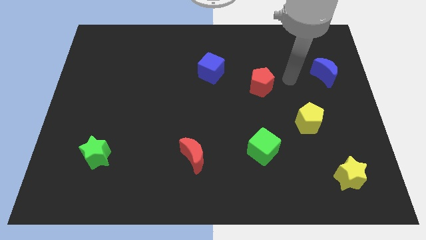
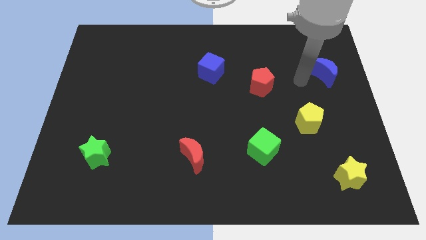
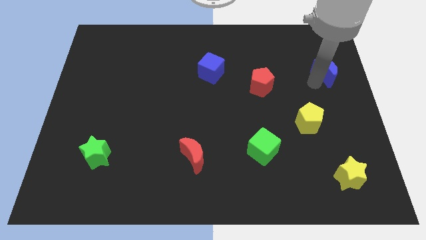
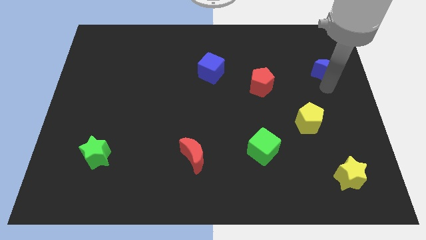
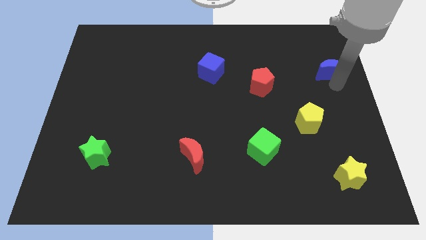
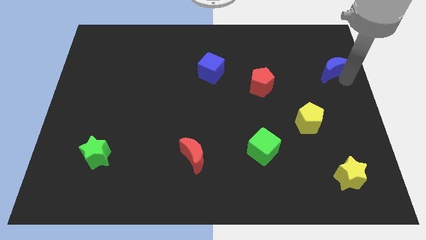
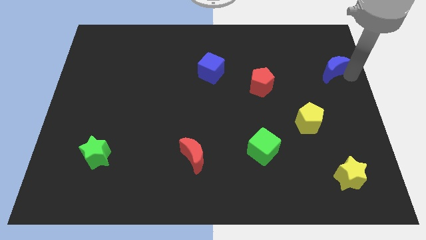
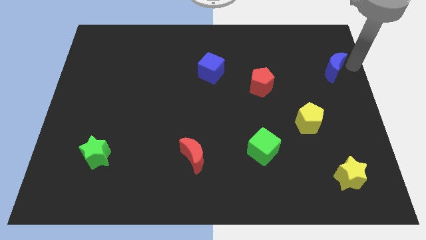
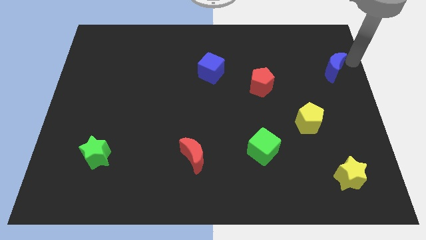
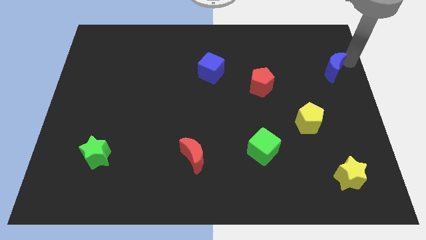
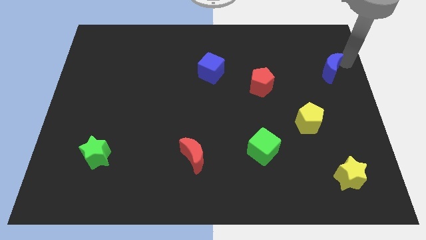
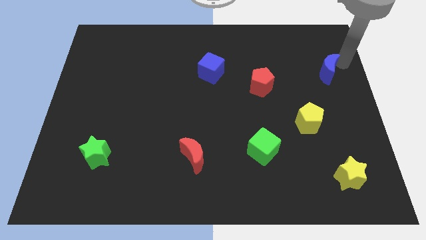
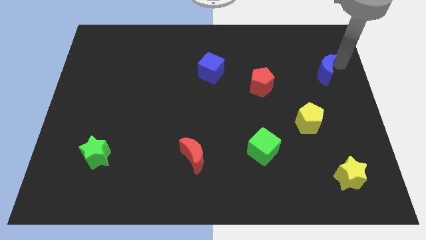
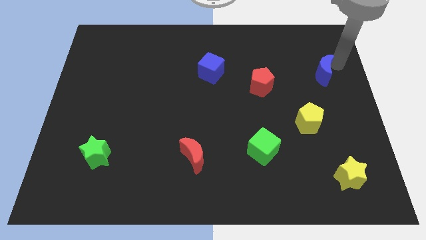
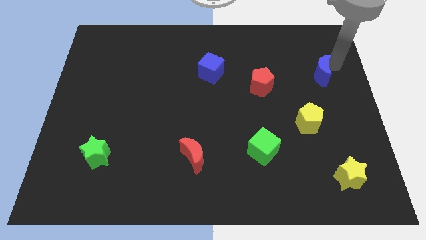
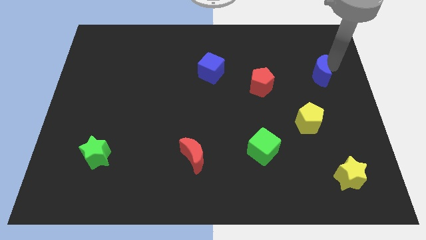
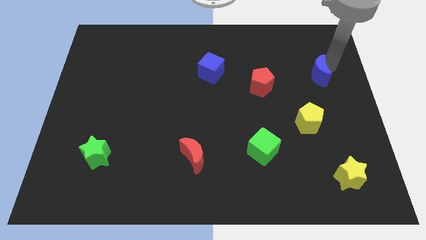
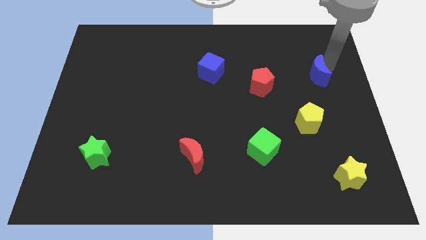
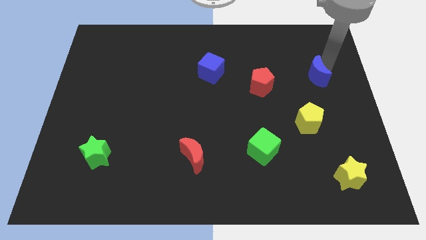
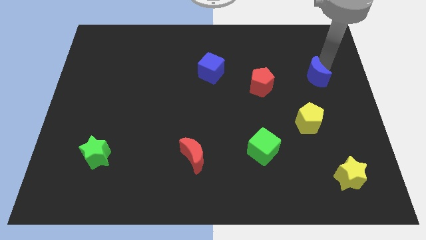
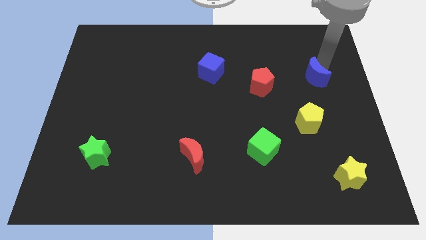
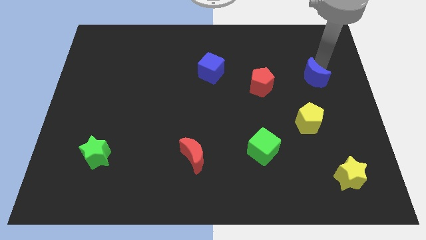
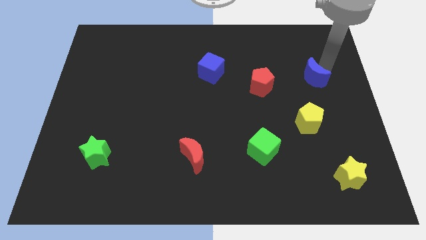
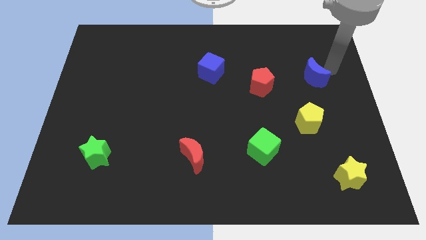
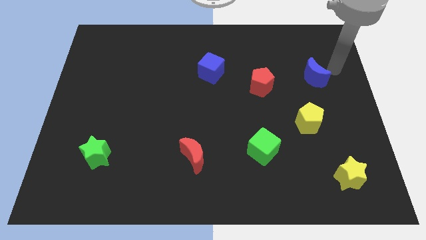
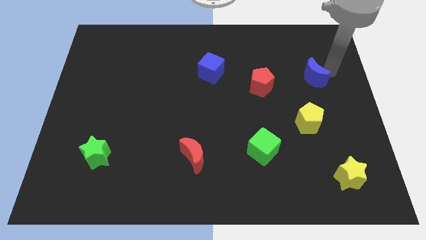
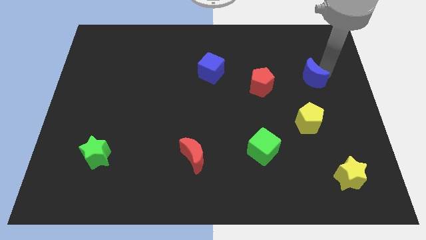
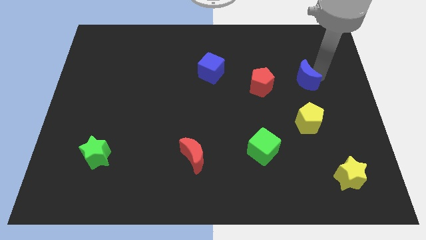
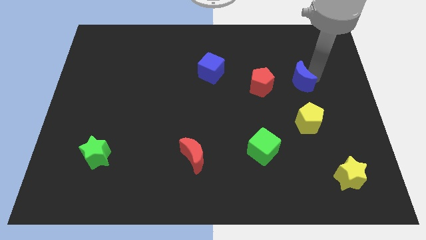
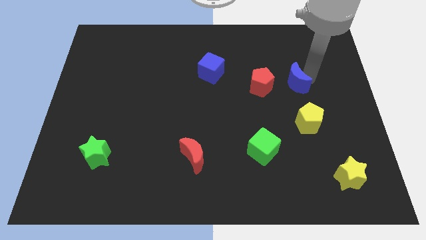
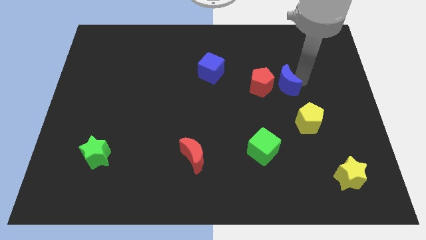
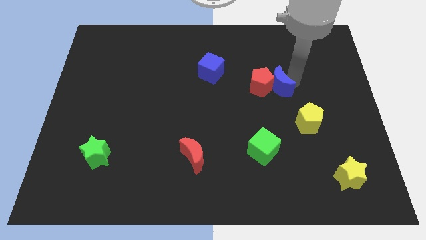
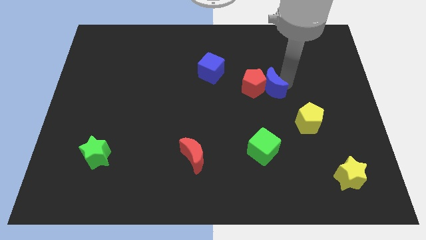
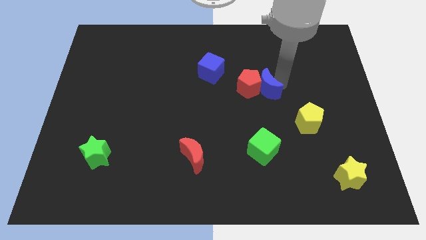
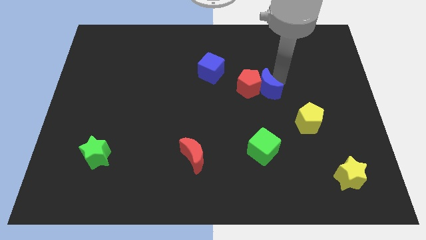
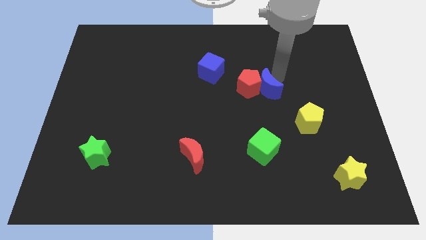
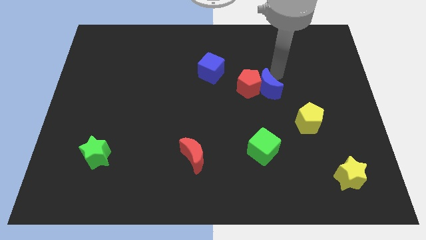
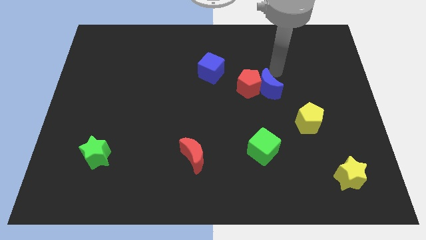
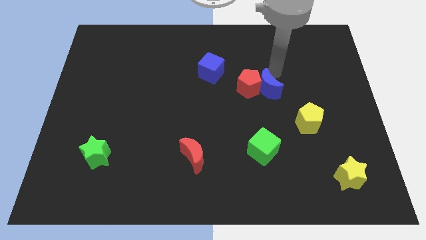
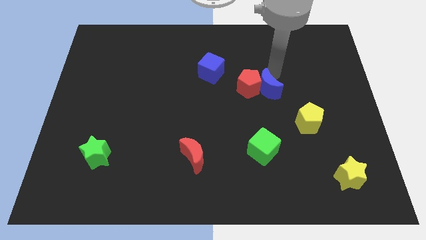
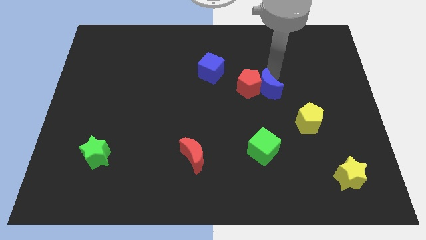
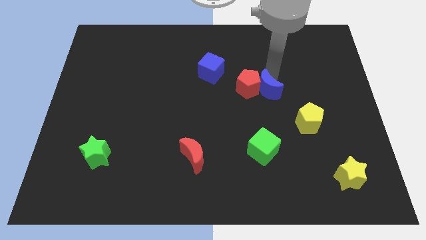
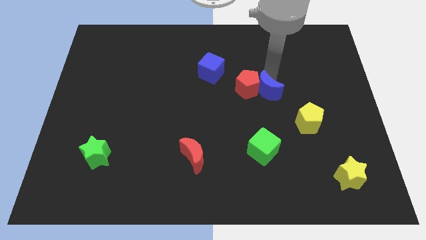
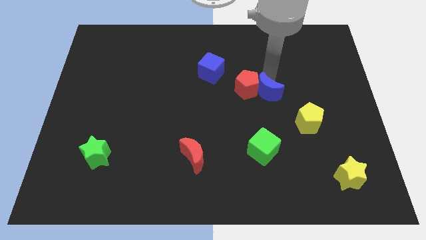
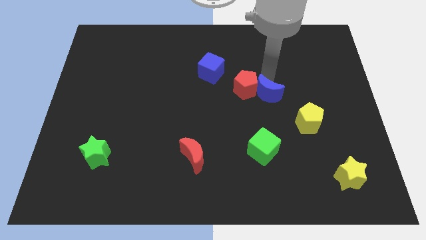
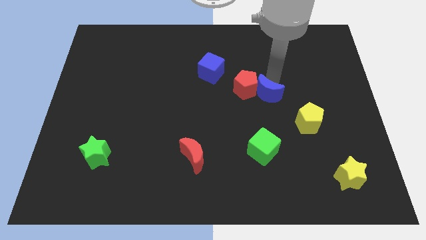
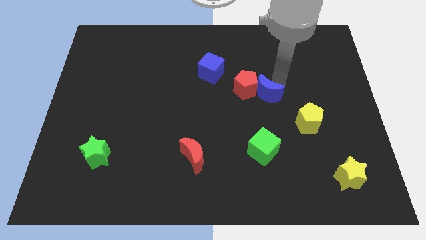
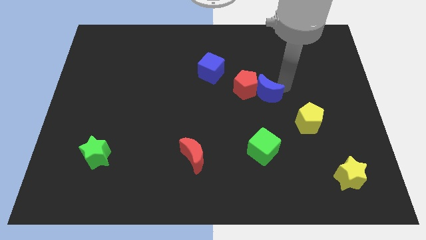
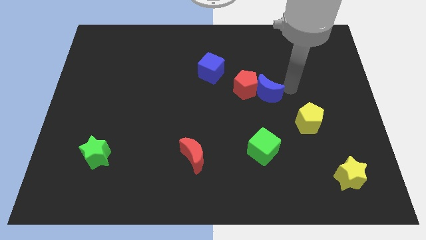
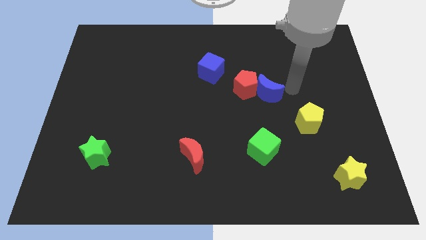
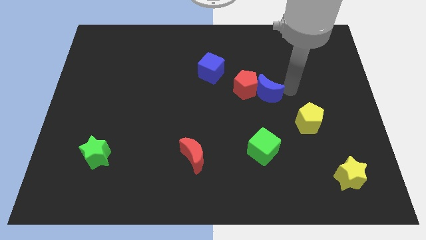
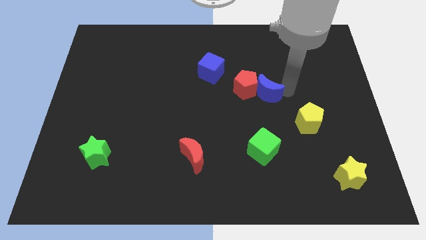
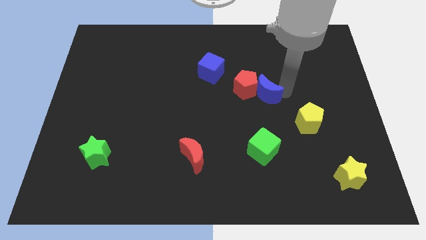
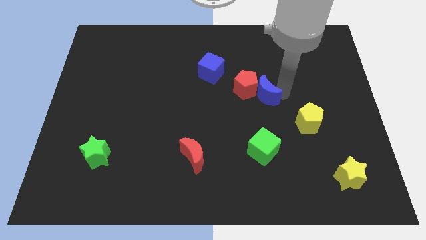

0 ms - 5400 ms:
slide the blue moon to the middle of the board
